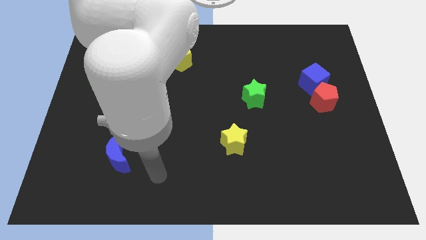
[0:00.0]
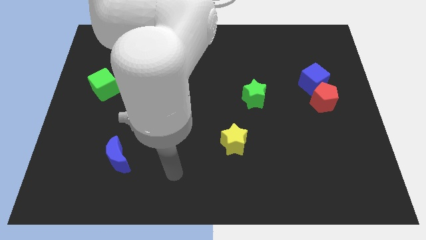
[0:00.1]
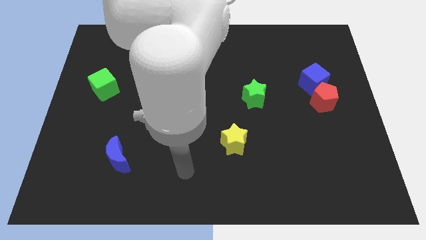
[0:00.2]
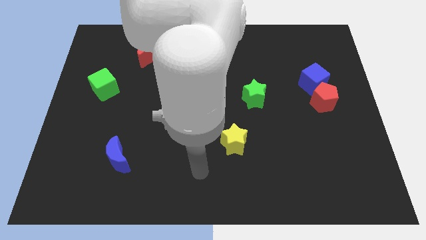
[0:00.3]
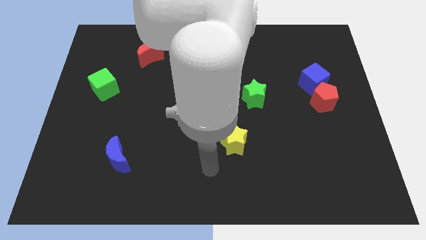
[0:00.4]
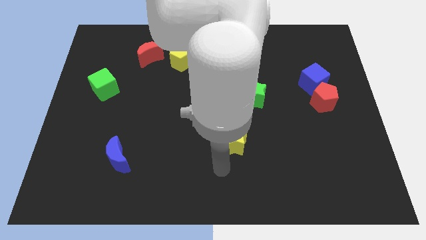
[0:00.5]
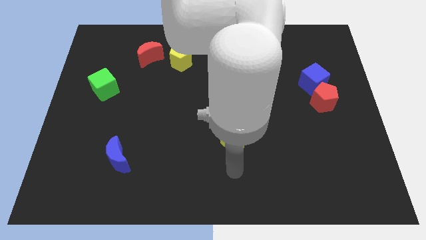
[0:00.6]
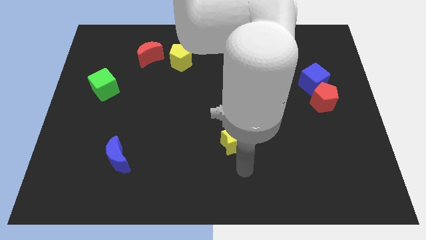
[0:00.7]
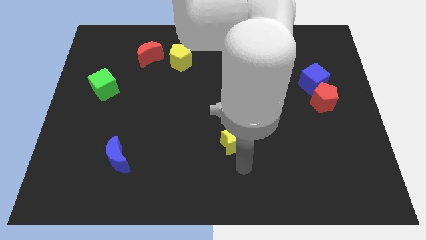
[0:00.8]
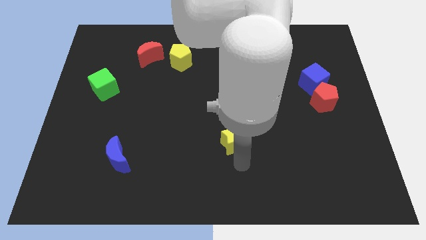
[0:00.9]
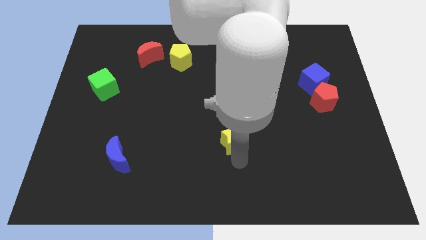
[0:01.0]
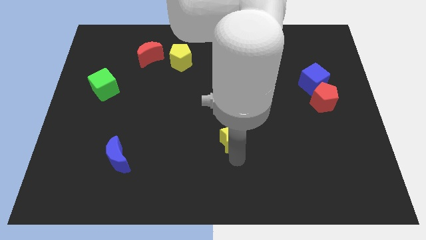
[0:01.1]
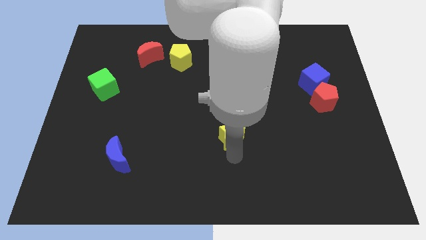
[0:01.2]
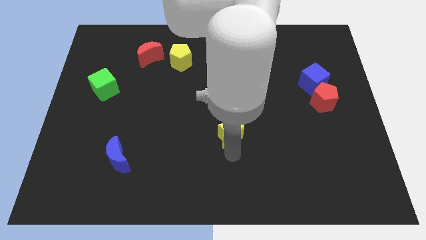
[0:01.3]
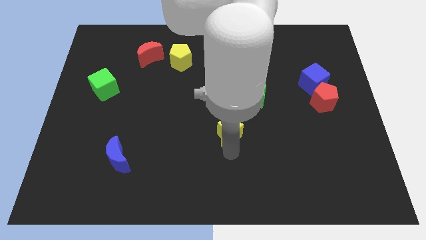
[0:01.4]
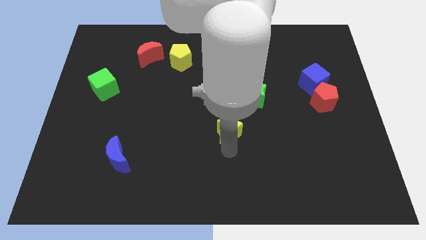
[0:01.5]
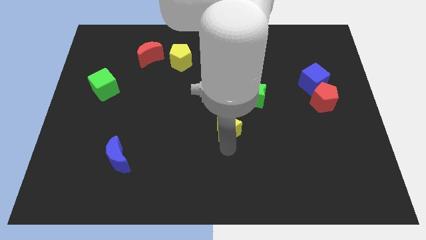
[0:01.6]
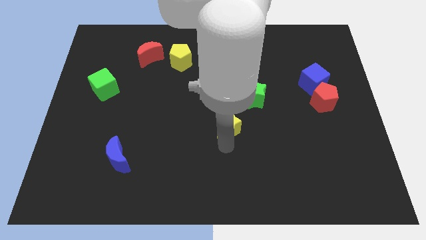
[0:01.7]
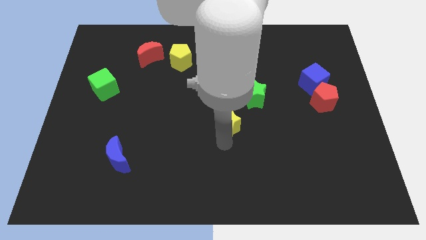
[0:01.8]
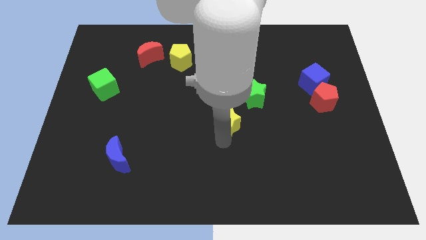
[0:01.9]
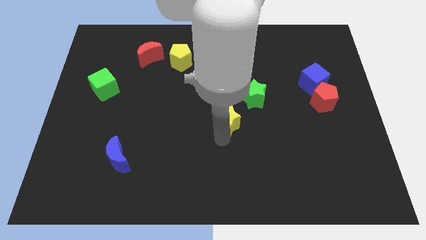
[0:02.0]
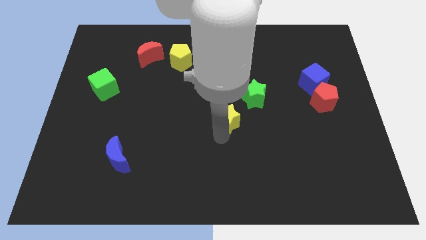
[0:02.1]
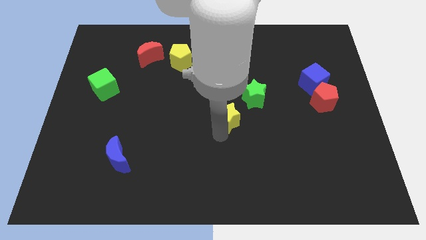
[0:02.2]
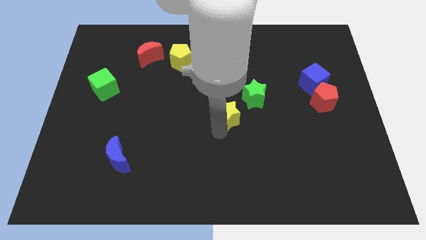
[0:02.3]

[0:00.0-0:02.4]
push the yellow star a little up

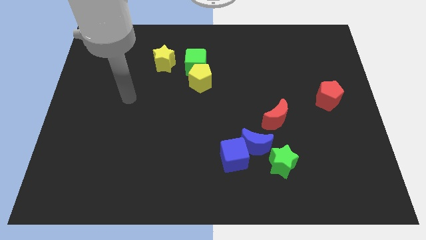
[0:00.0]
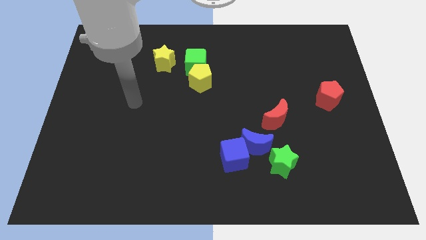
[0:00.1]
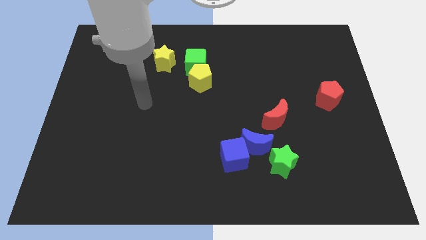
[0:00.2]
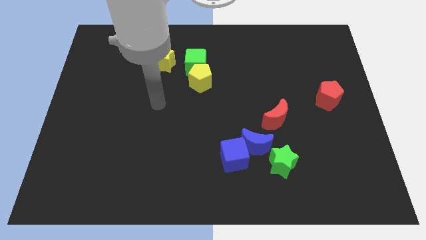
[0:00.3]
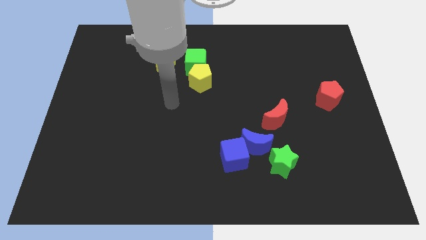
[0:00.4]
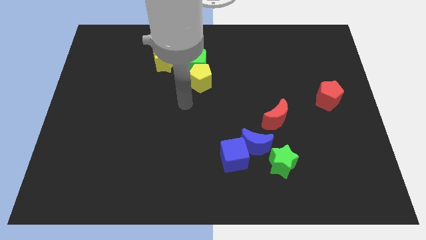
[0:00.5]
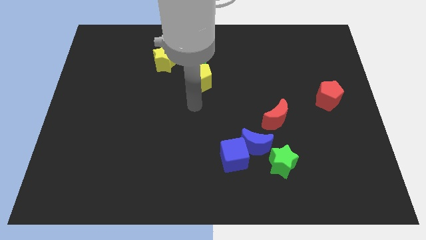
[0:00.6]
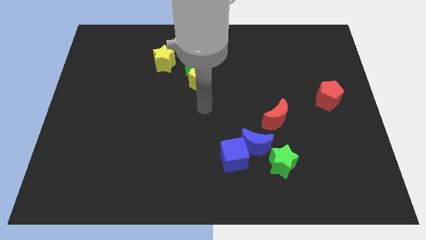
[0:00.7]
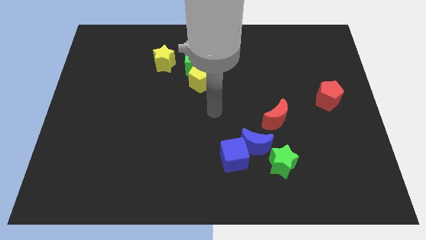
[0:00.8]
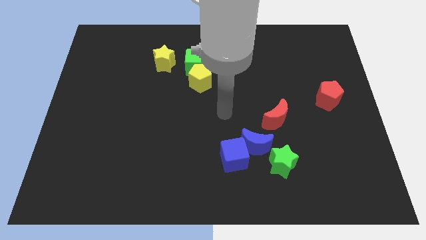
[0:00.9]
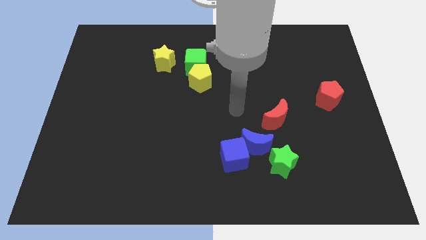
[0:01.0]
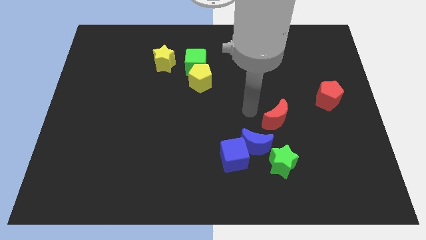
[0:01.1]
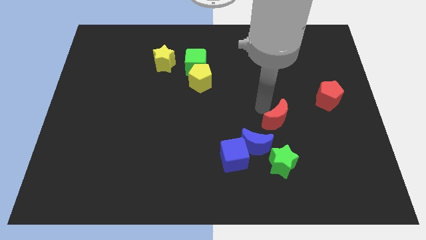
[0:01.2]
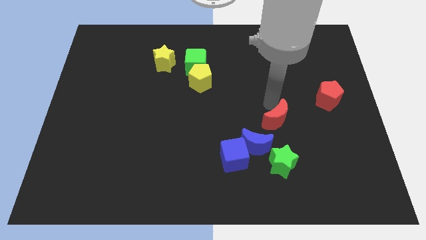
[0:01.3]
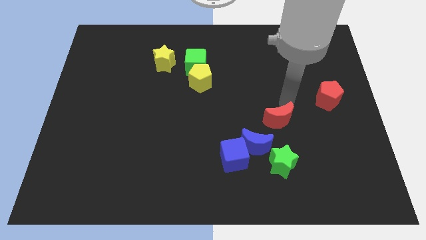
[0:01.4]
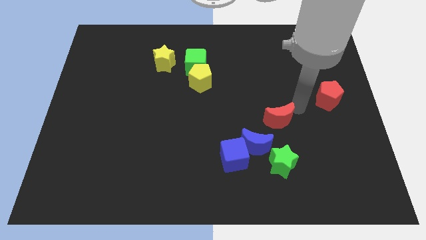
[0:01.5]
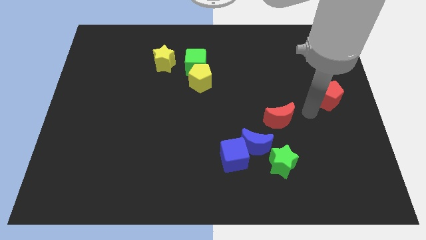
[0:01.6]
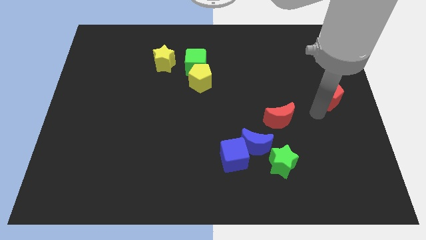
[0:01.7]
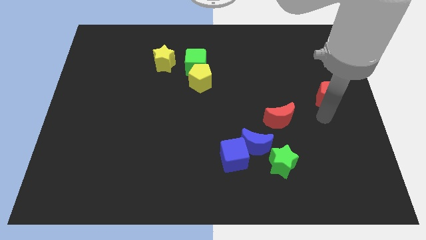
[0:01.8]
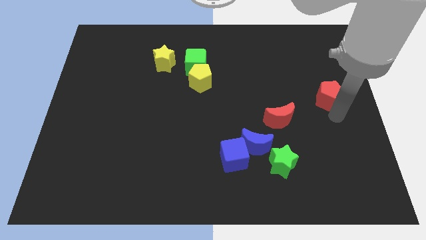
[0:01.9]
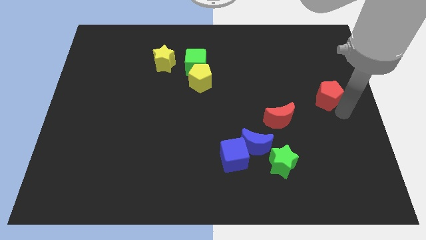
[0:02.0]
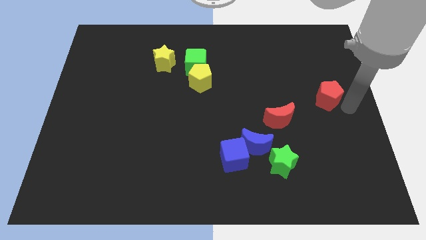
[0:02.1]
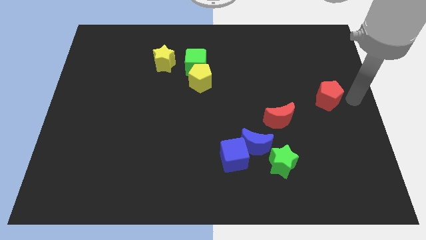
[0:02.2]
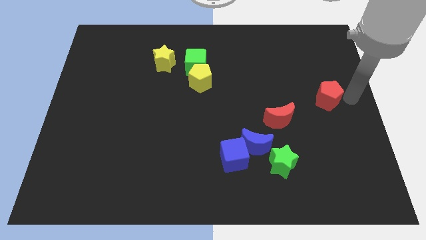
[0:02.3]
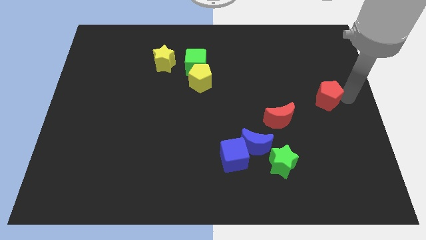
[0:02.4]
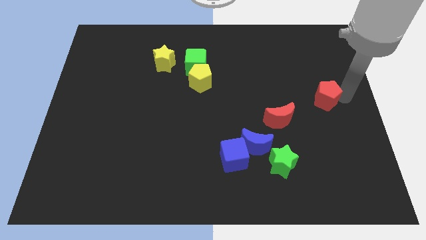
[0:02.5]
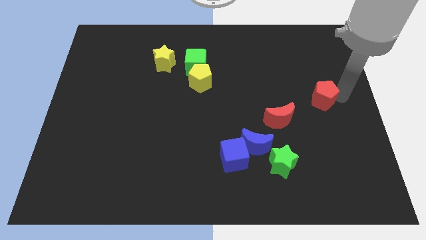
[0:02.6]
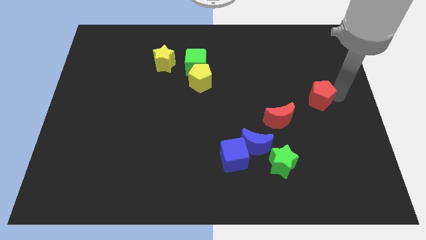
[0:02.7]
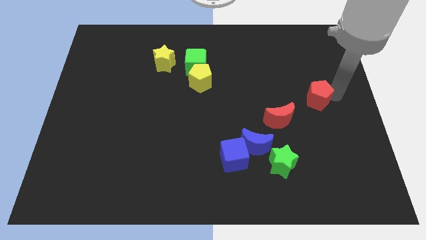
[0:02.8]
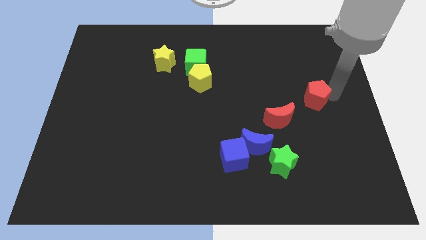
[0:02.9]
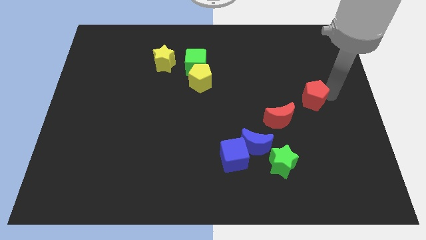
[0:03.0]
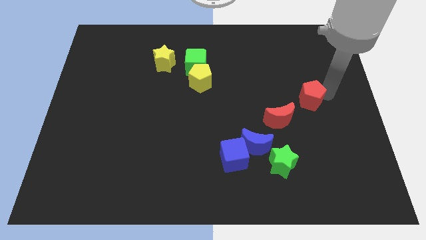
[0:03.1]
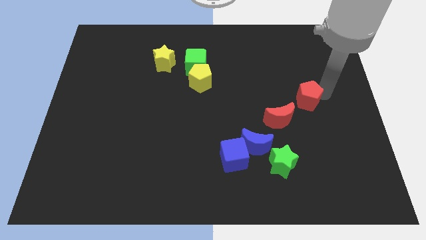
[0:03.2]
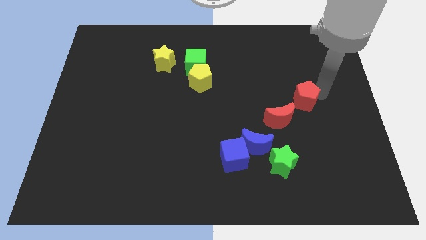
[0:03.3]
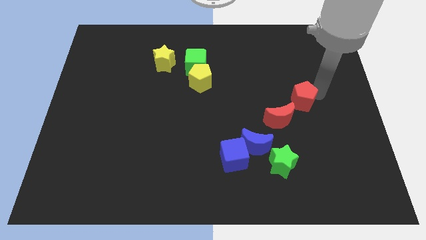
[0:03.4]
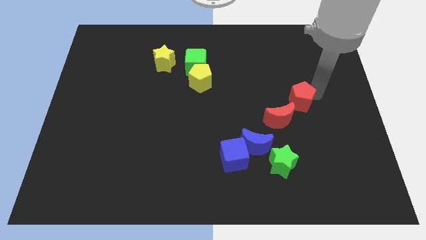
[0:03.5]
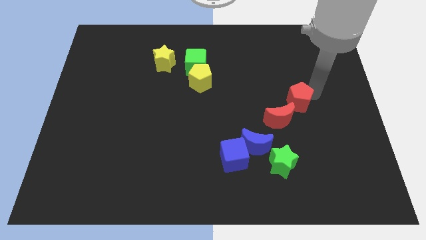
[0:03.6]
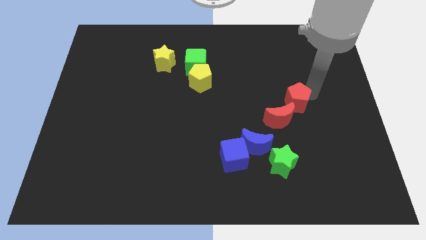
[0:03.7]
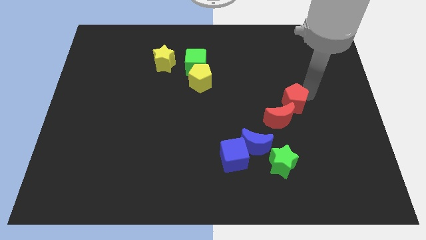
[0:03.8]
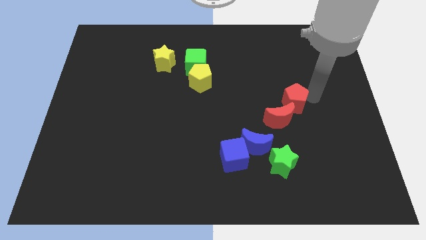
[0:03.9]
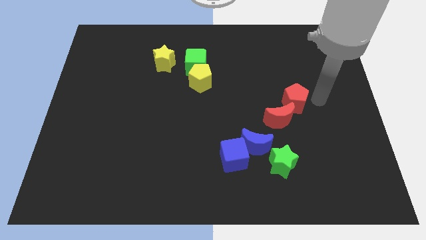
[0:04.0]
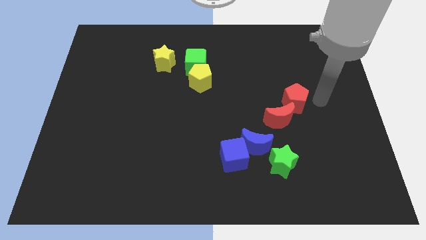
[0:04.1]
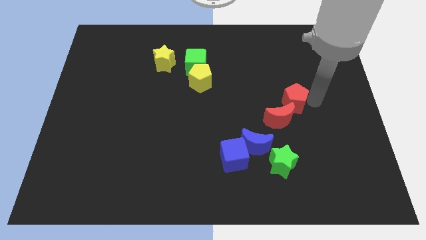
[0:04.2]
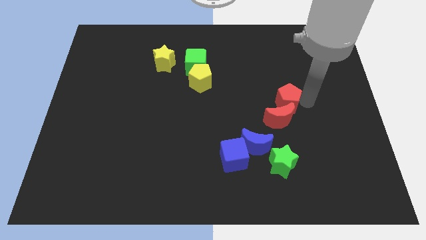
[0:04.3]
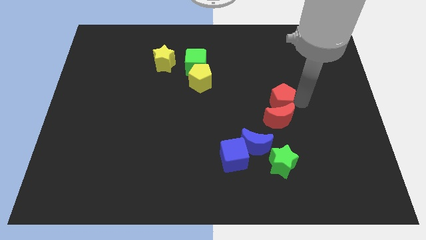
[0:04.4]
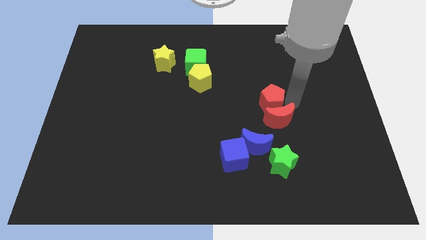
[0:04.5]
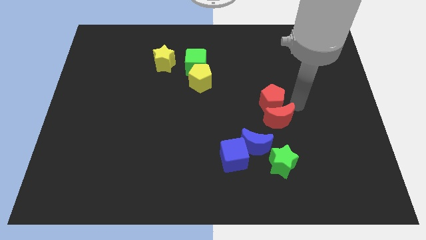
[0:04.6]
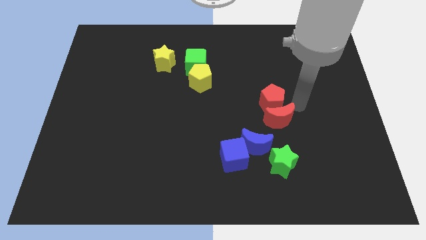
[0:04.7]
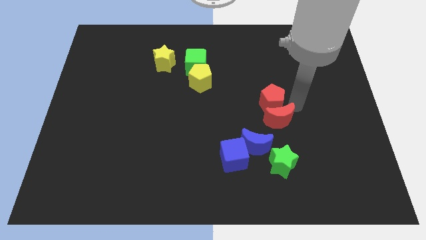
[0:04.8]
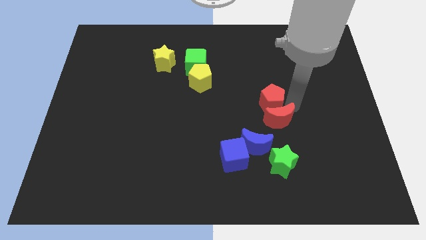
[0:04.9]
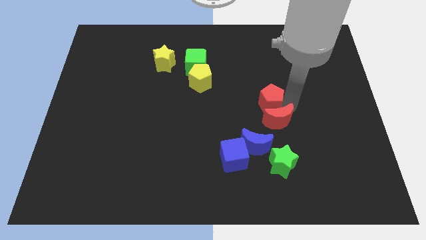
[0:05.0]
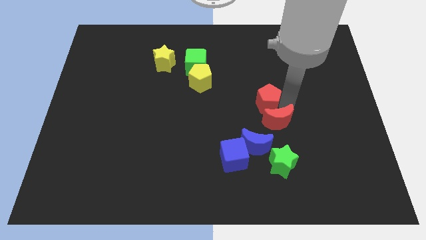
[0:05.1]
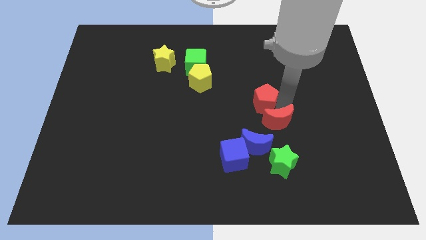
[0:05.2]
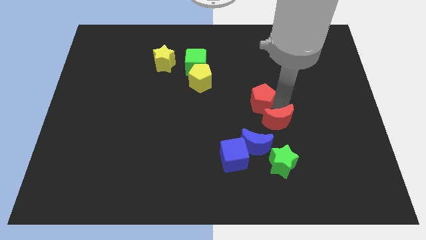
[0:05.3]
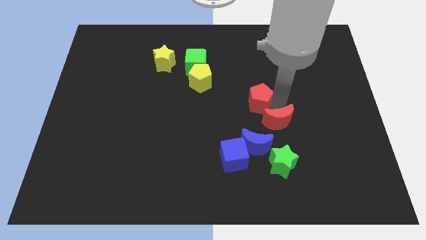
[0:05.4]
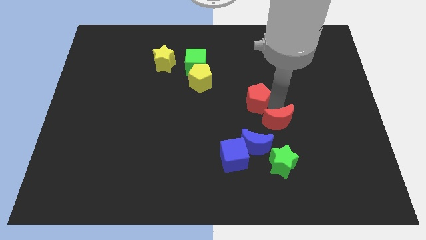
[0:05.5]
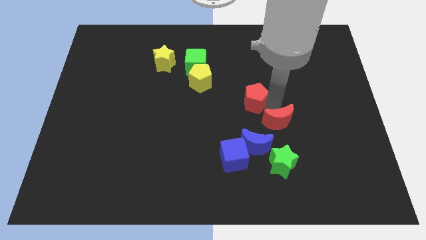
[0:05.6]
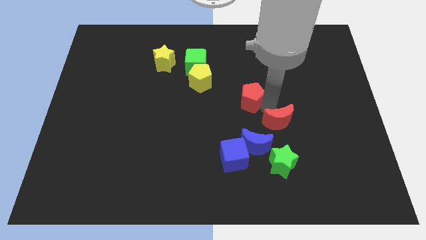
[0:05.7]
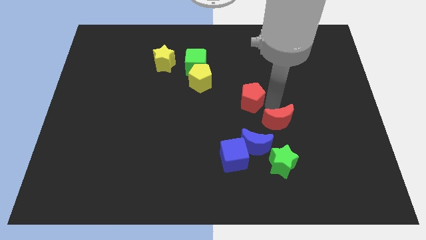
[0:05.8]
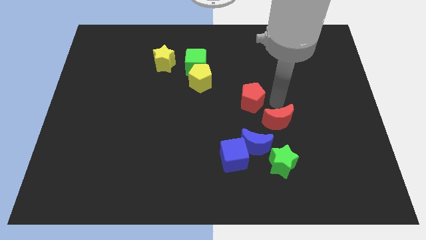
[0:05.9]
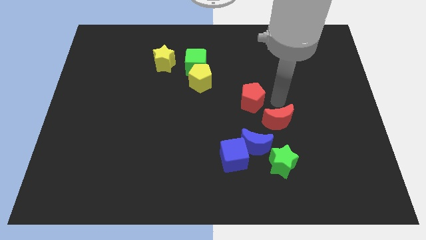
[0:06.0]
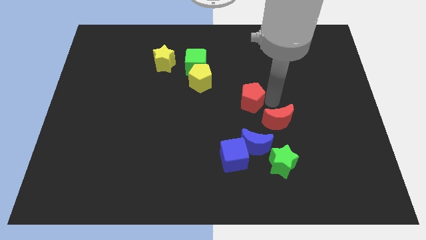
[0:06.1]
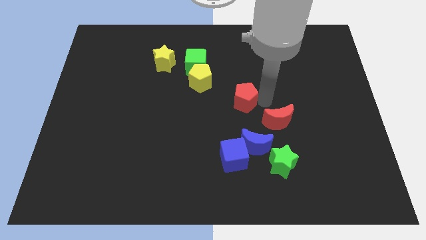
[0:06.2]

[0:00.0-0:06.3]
push the red pentagon left
